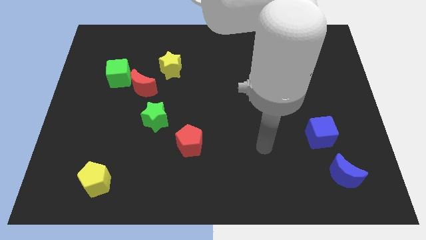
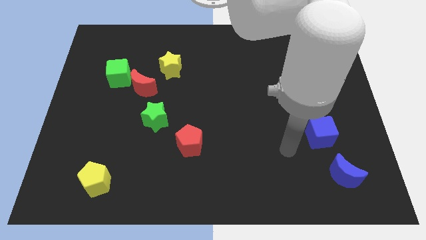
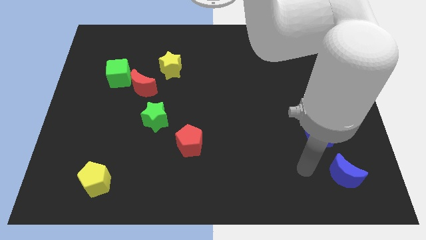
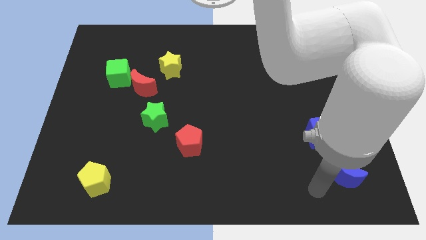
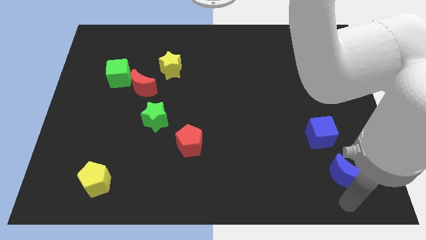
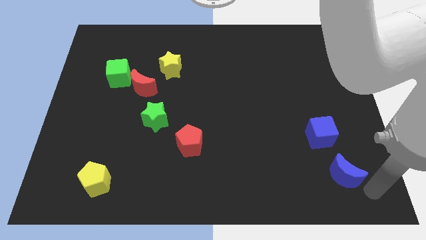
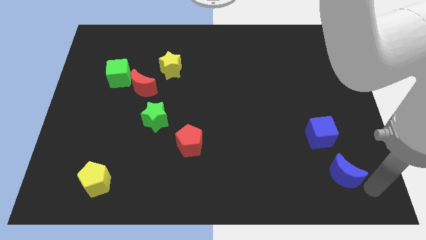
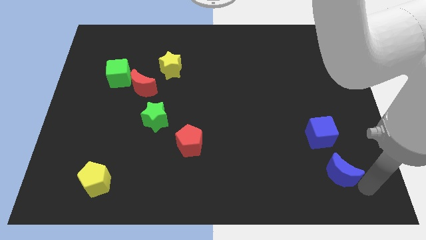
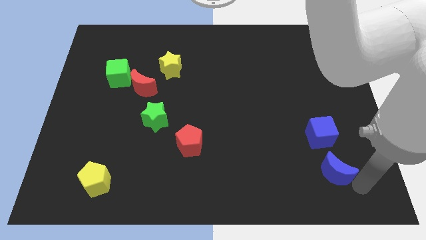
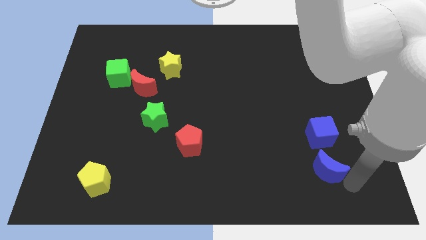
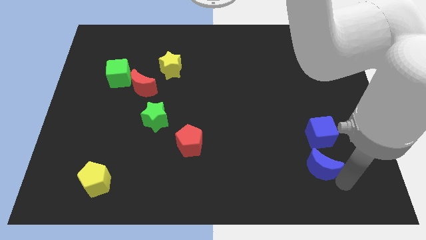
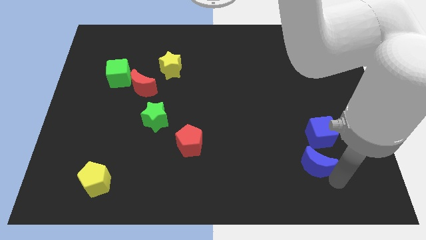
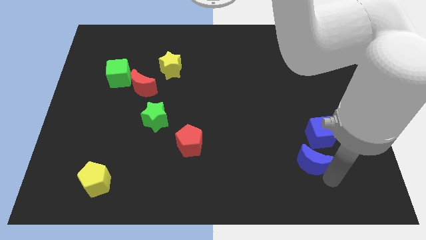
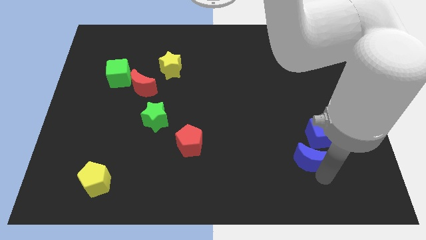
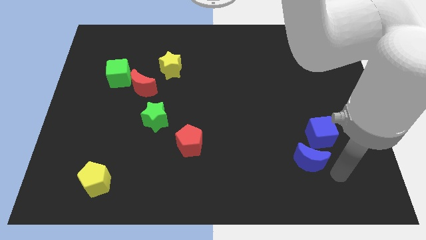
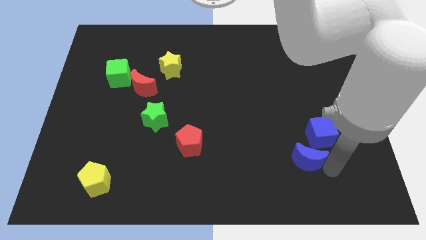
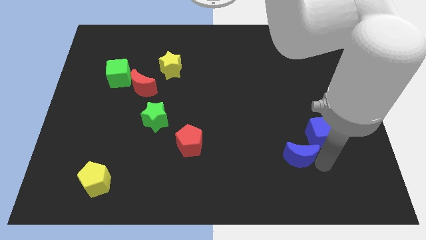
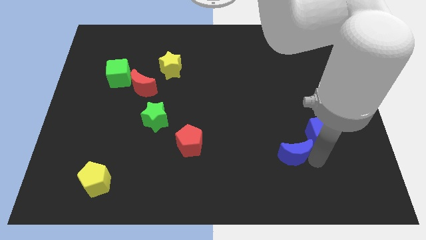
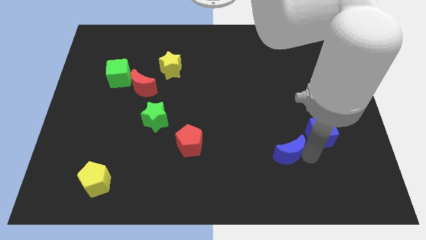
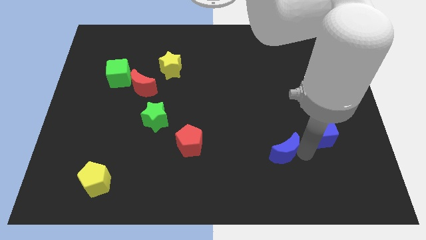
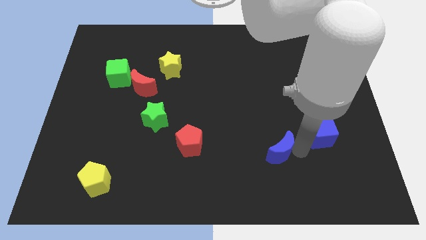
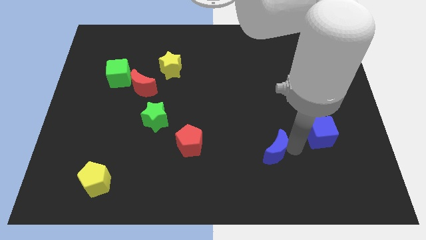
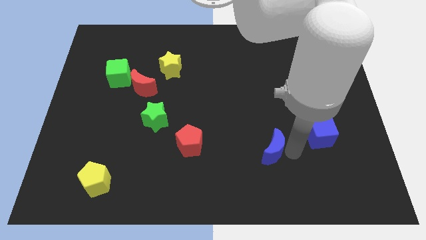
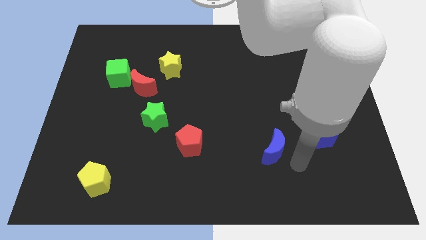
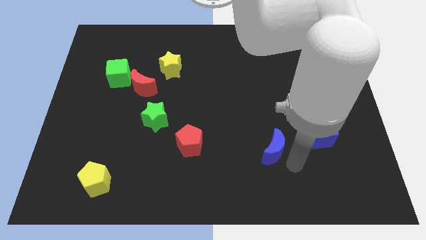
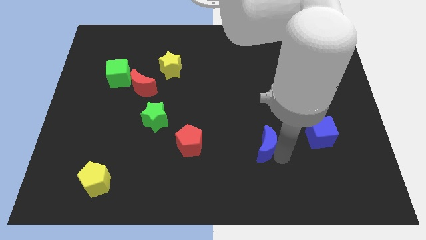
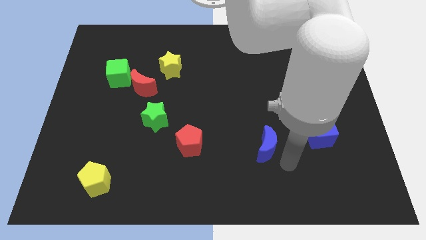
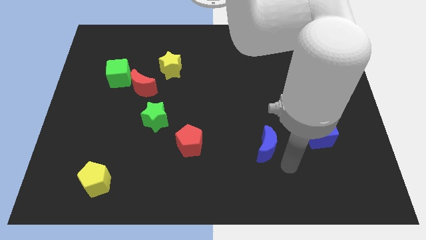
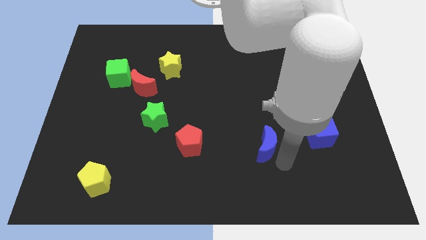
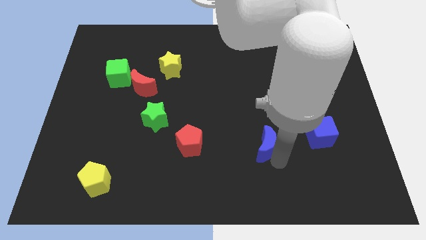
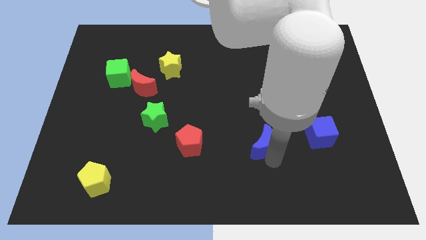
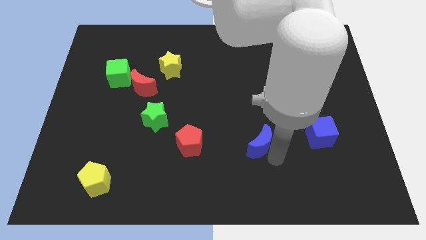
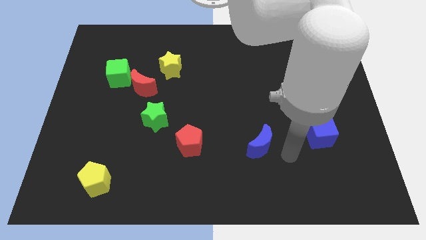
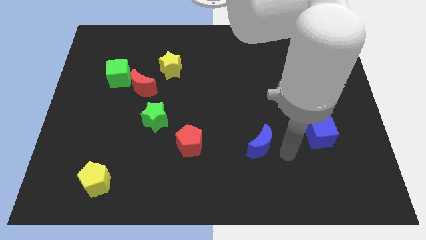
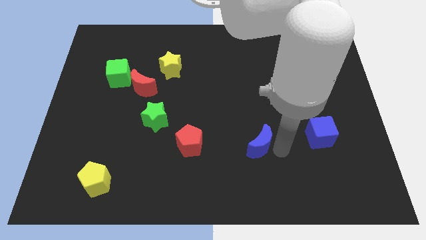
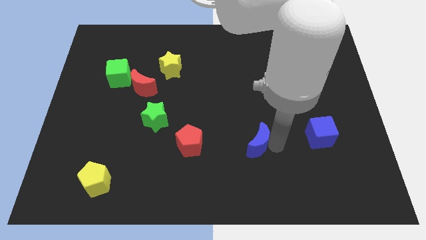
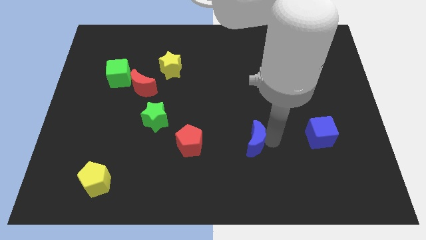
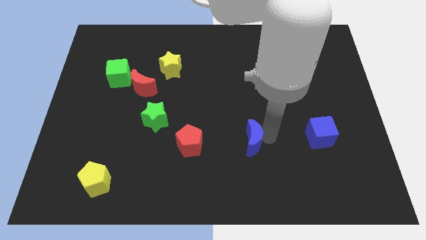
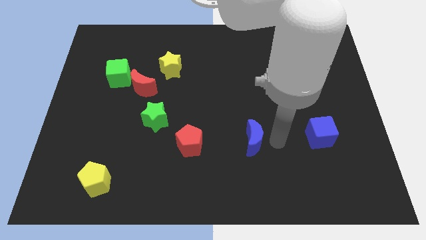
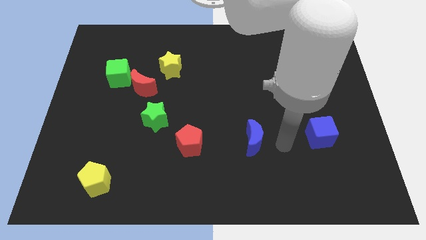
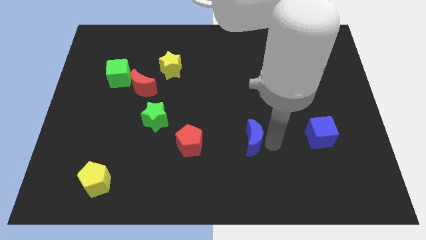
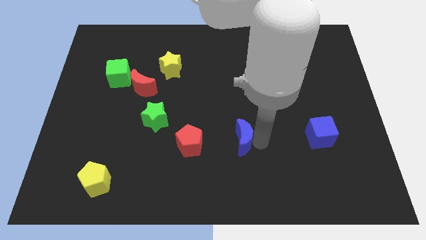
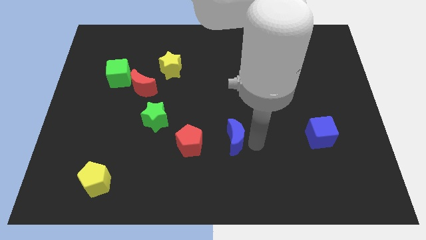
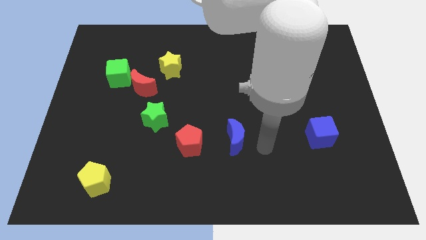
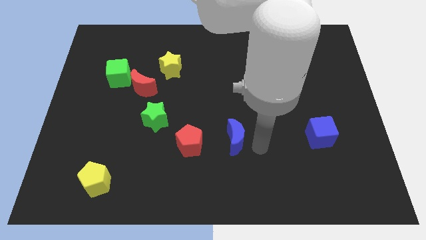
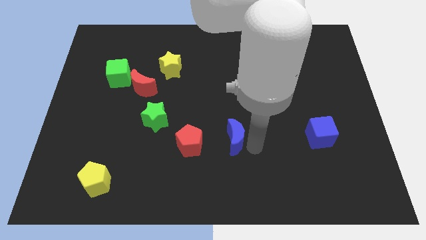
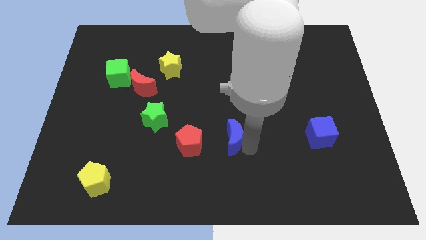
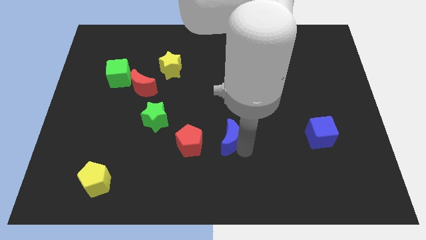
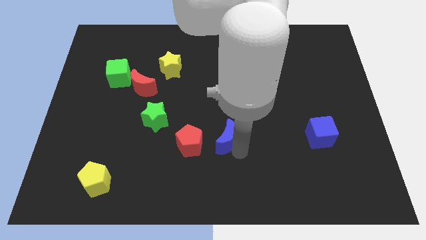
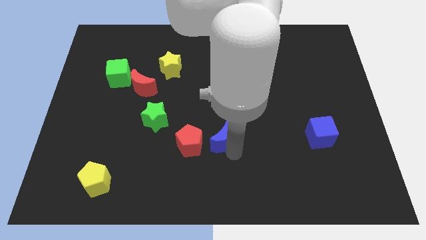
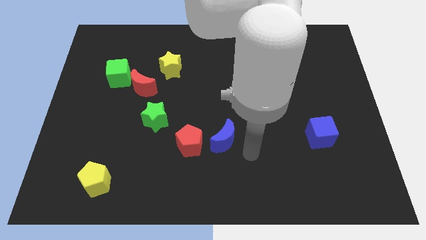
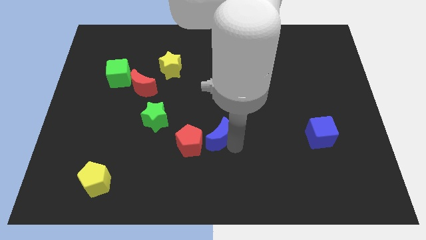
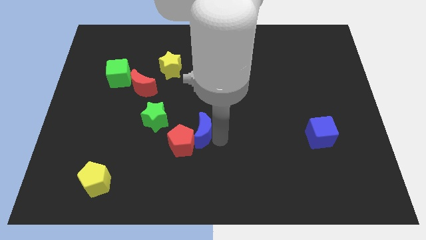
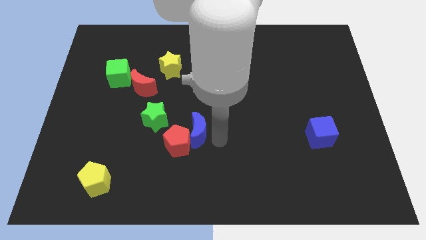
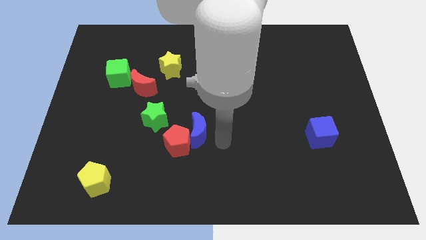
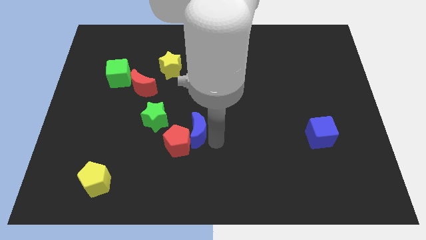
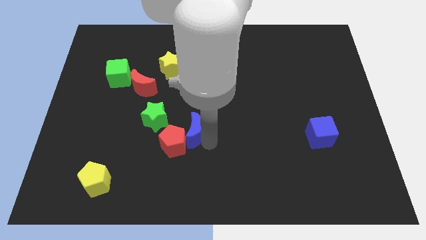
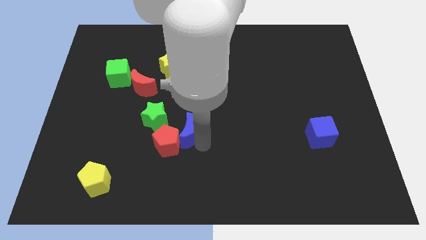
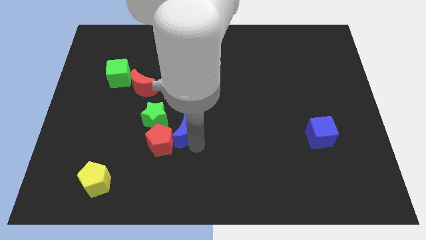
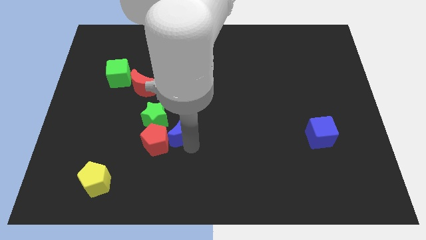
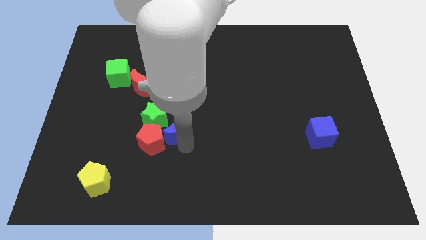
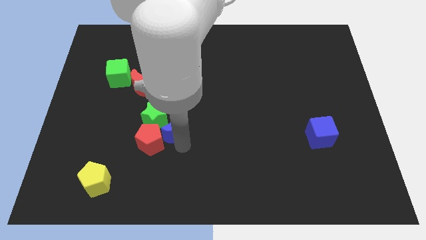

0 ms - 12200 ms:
push the blue moon next to the green star

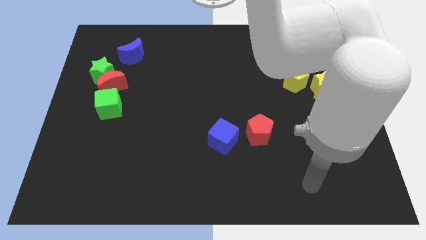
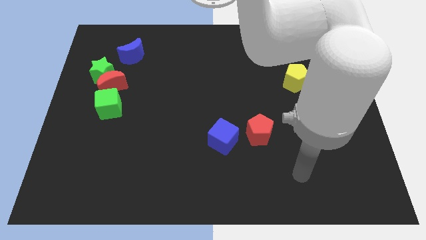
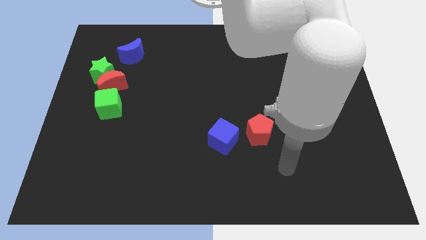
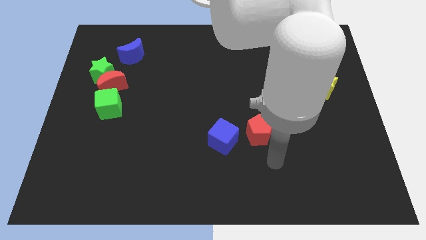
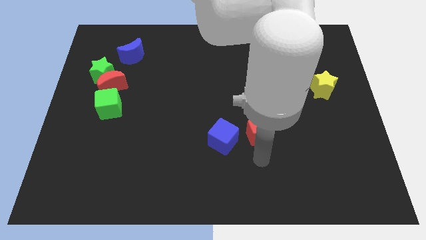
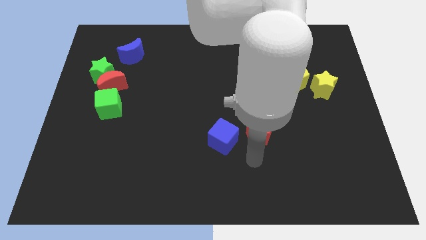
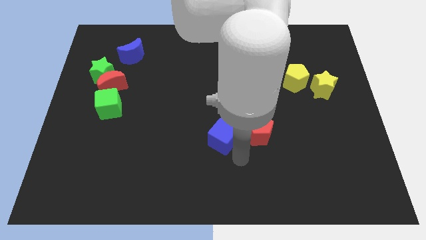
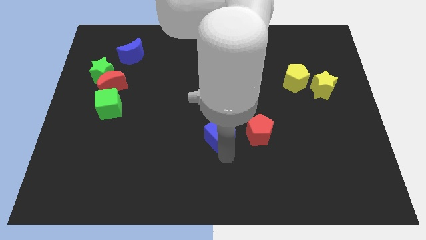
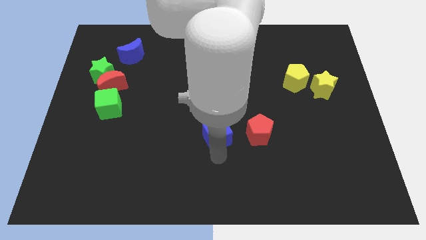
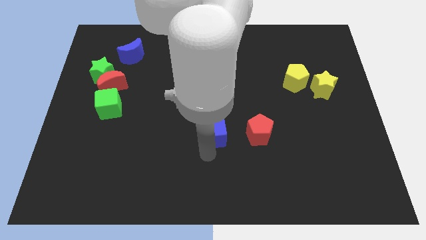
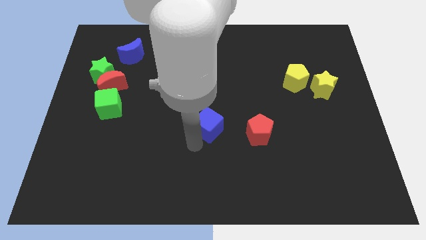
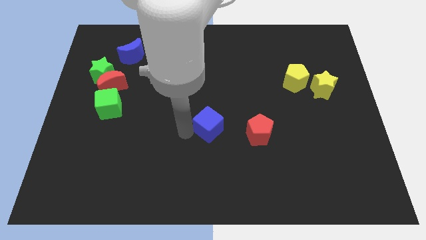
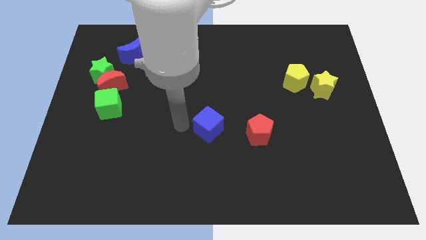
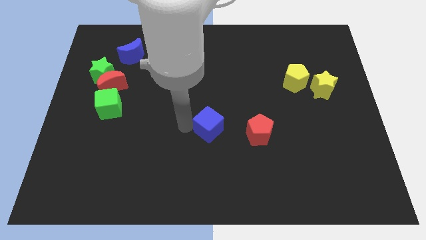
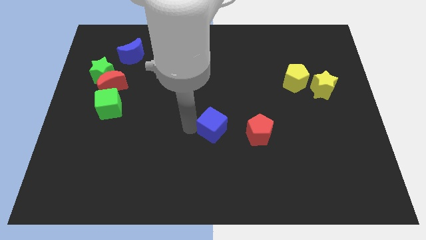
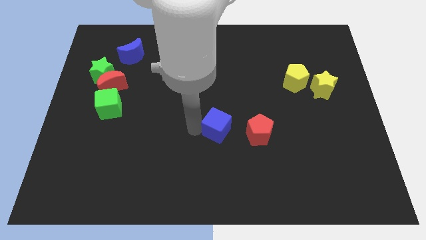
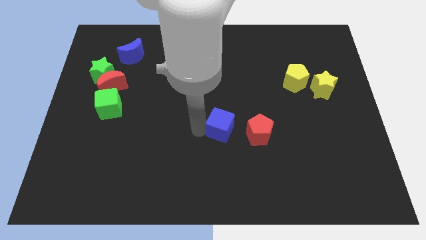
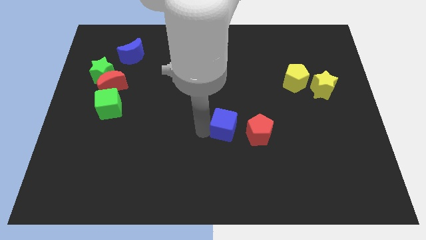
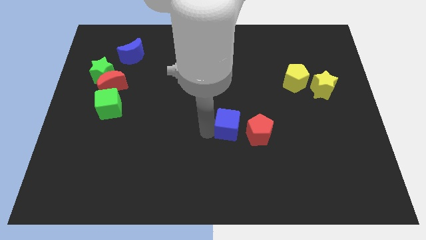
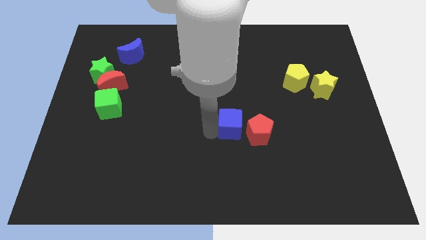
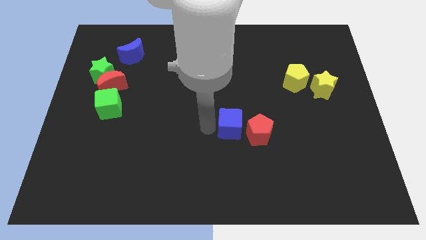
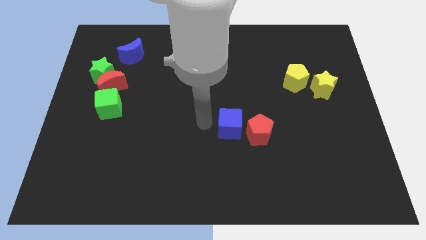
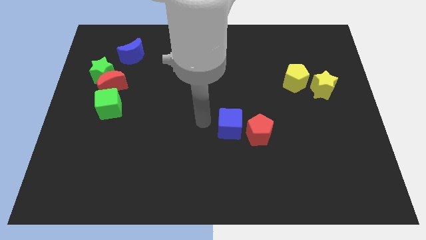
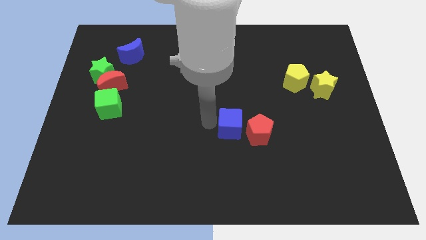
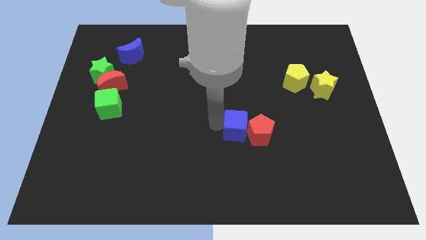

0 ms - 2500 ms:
push the blue cube to the red pentagon
